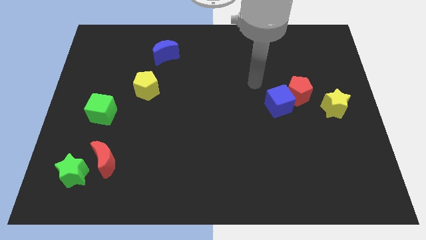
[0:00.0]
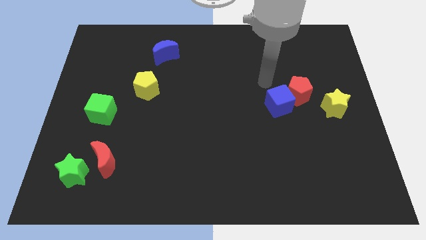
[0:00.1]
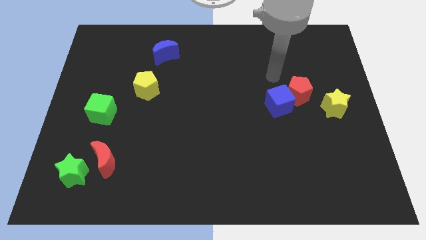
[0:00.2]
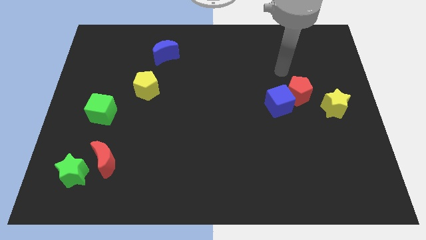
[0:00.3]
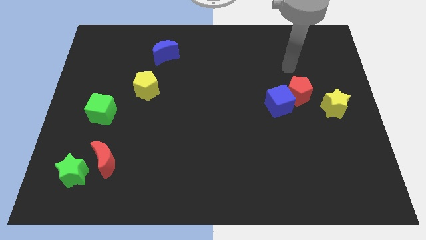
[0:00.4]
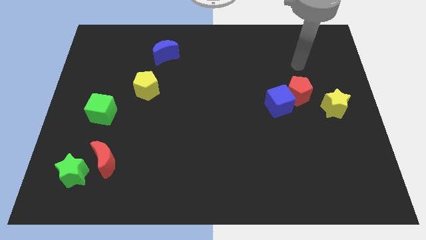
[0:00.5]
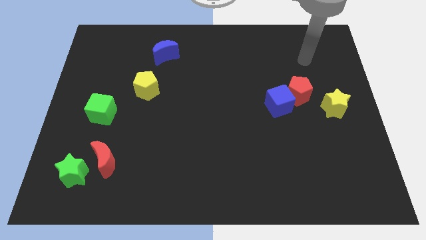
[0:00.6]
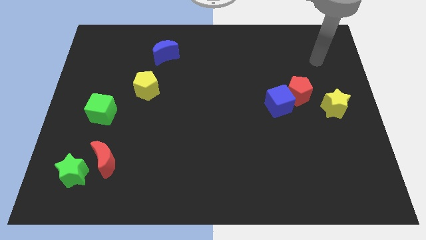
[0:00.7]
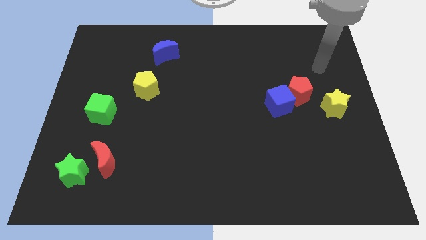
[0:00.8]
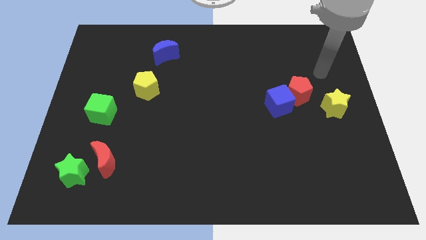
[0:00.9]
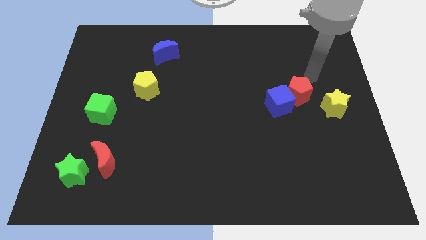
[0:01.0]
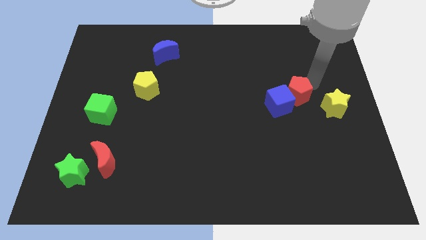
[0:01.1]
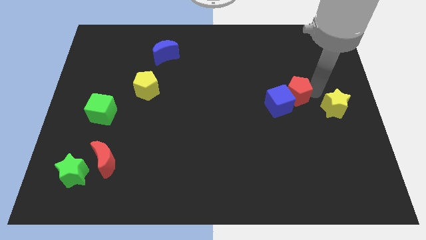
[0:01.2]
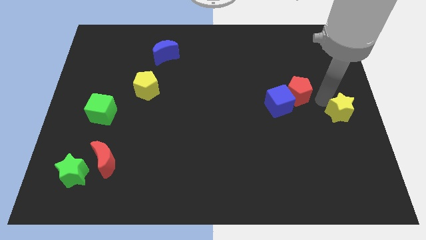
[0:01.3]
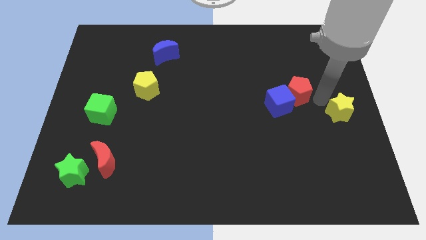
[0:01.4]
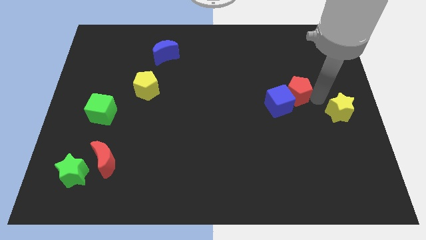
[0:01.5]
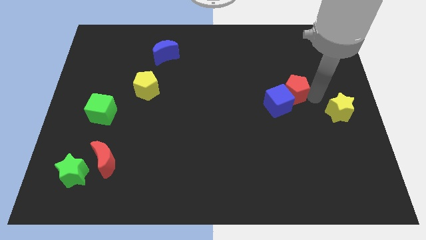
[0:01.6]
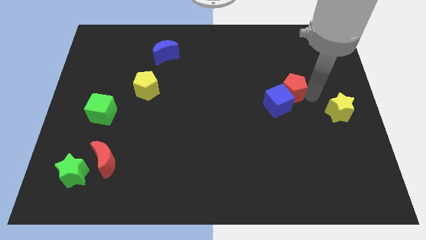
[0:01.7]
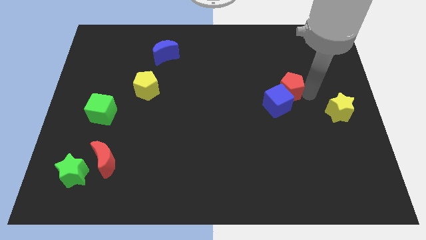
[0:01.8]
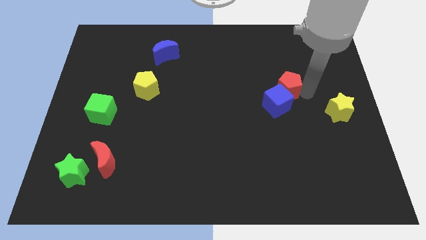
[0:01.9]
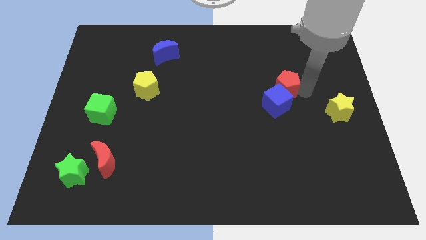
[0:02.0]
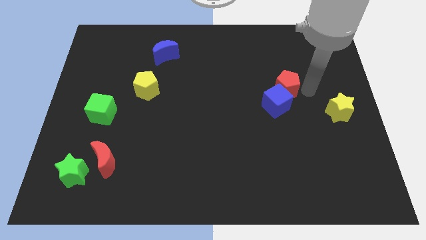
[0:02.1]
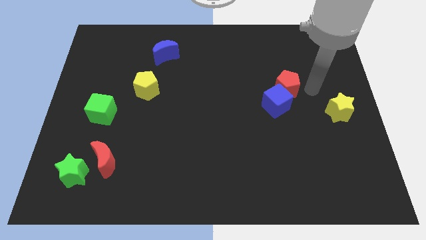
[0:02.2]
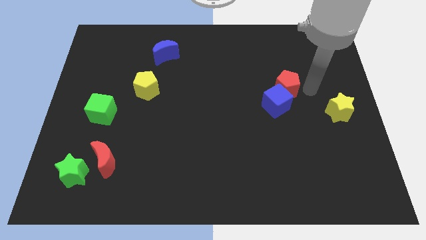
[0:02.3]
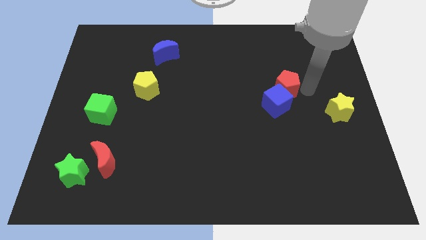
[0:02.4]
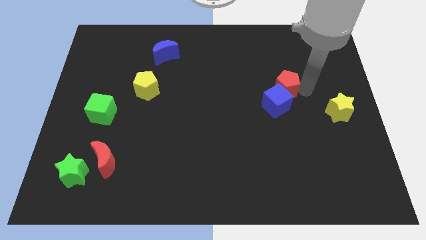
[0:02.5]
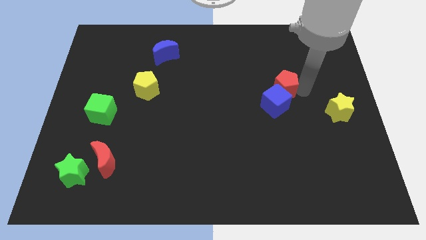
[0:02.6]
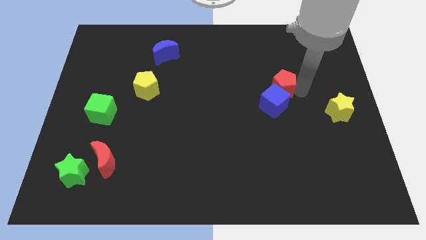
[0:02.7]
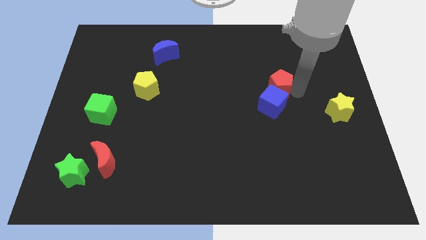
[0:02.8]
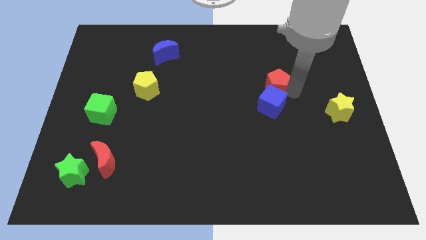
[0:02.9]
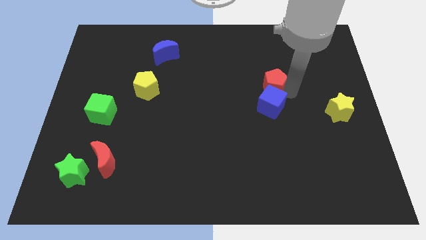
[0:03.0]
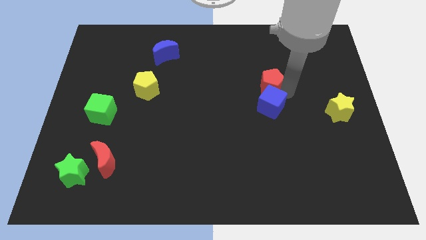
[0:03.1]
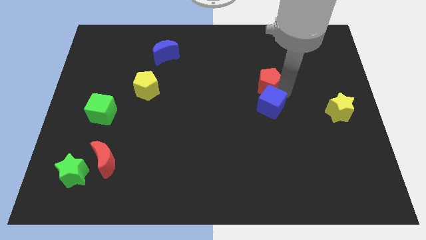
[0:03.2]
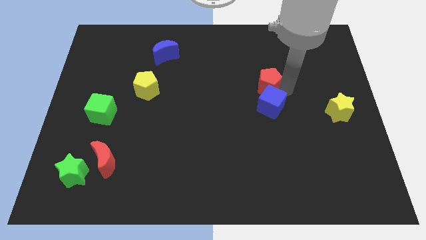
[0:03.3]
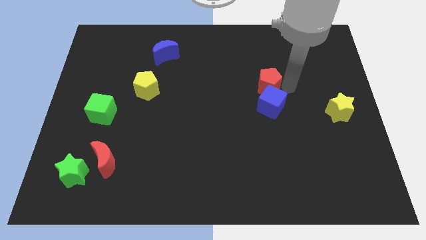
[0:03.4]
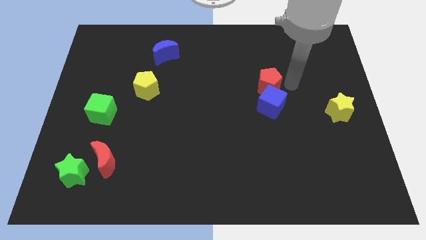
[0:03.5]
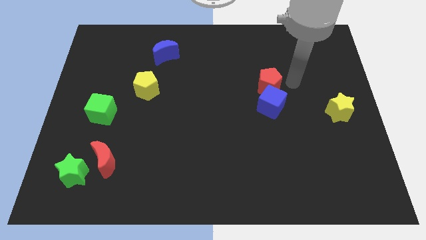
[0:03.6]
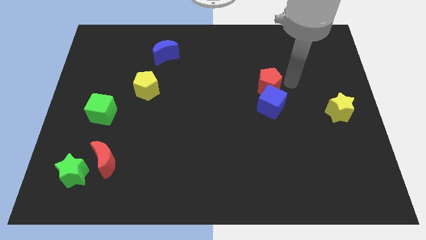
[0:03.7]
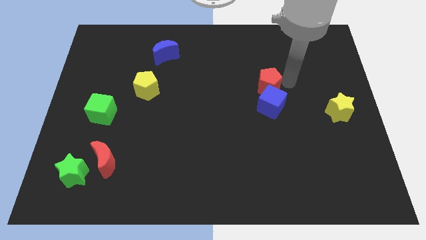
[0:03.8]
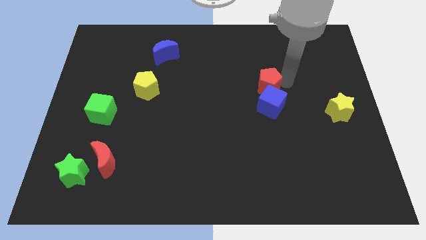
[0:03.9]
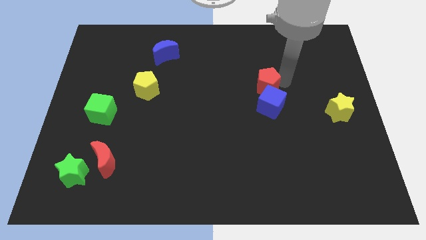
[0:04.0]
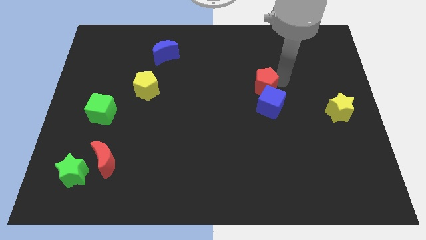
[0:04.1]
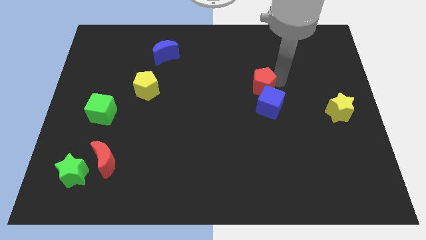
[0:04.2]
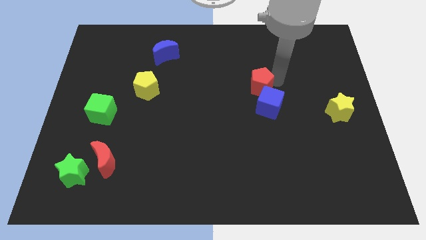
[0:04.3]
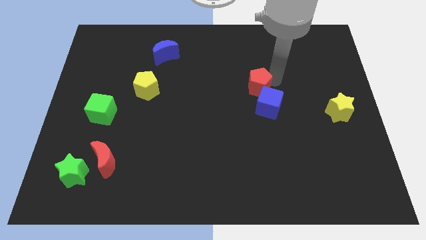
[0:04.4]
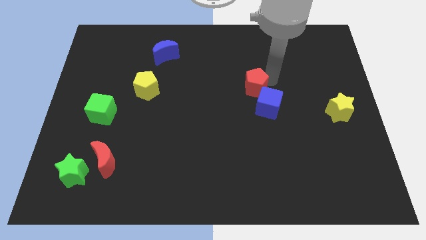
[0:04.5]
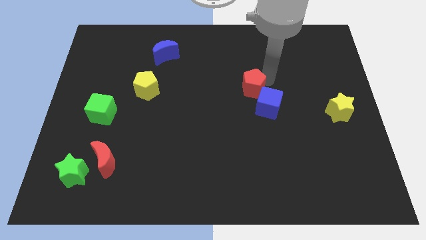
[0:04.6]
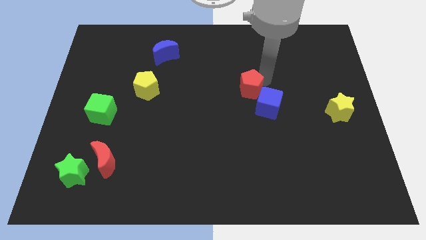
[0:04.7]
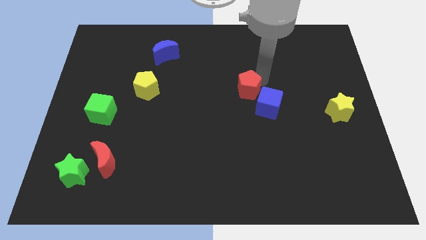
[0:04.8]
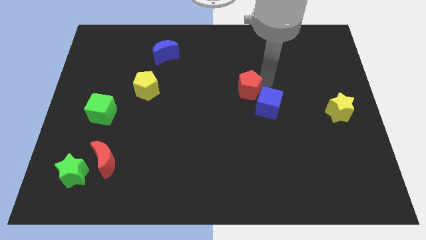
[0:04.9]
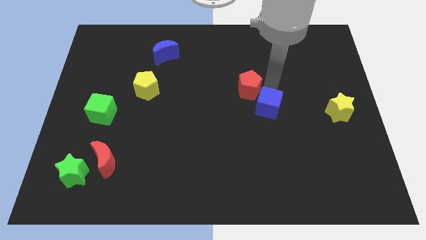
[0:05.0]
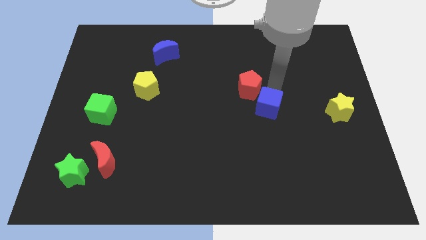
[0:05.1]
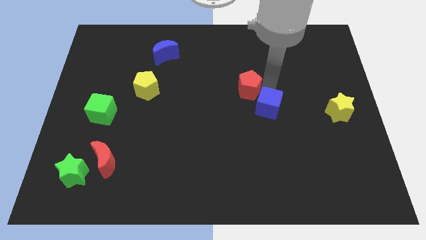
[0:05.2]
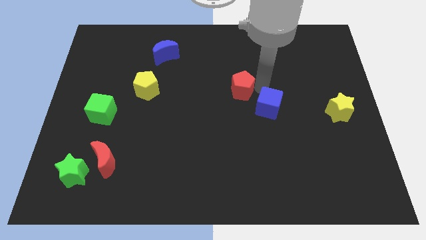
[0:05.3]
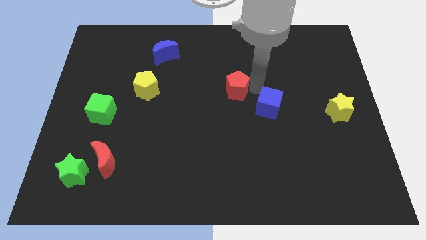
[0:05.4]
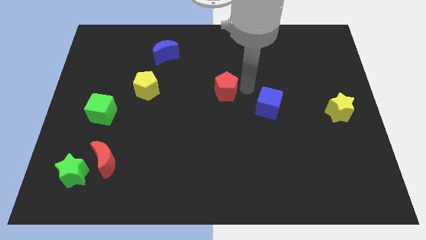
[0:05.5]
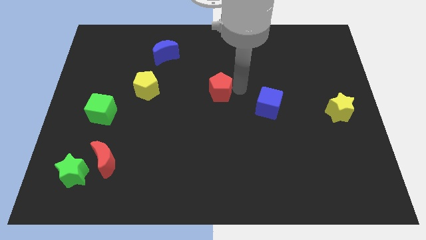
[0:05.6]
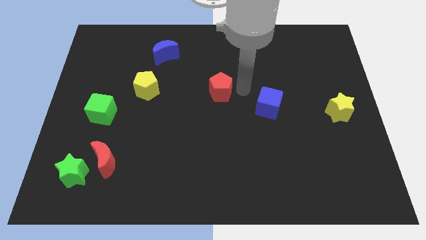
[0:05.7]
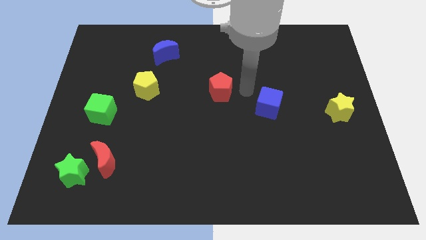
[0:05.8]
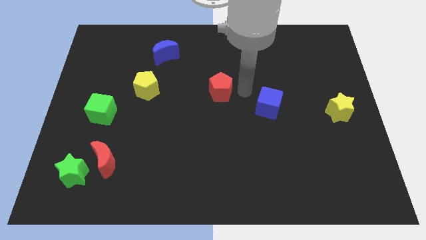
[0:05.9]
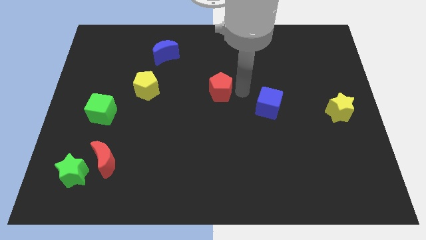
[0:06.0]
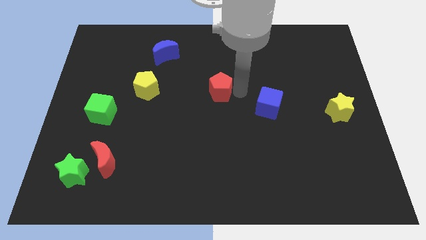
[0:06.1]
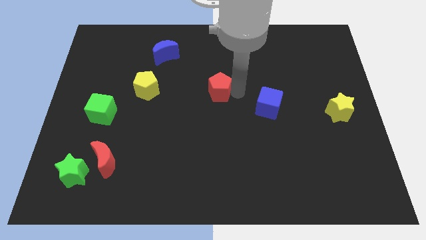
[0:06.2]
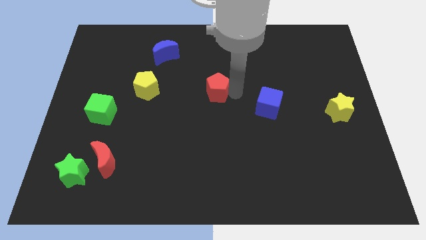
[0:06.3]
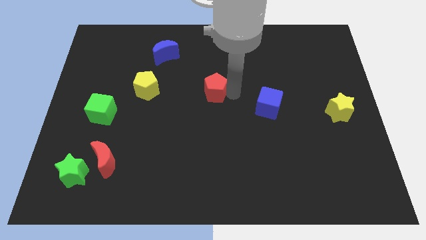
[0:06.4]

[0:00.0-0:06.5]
slide the red pentagon left

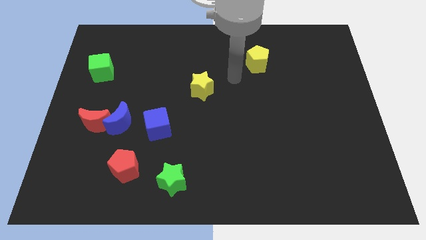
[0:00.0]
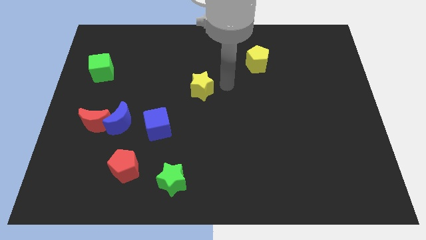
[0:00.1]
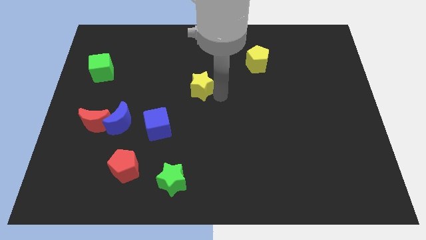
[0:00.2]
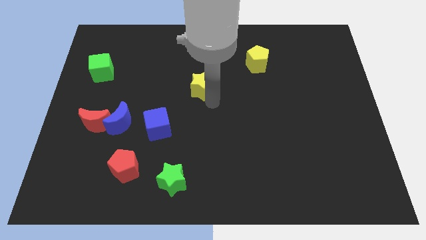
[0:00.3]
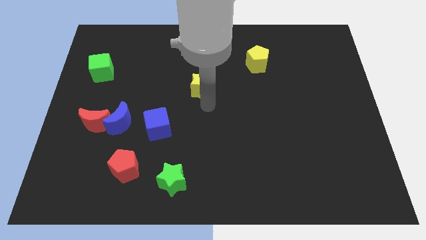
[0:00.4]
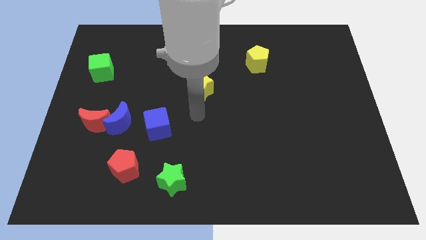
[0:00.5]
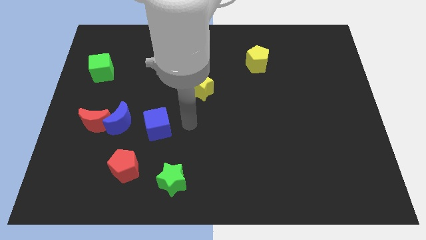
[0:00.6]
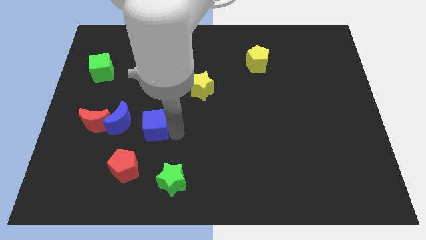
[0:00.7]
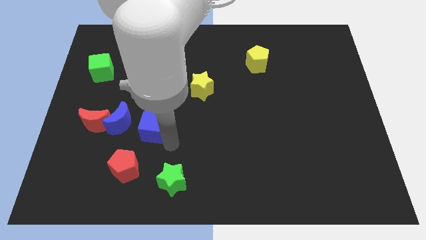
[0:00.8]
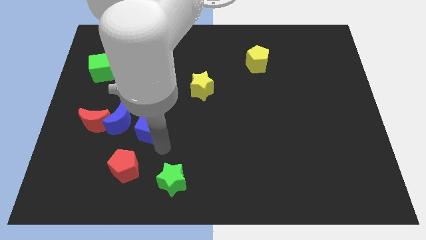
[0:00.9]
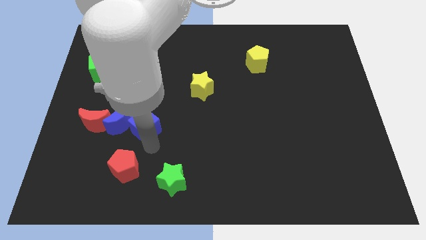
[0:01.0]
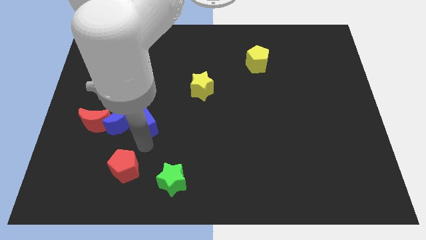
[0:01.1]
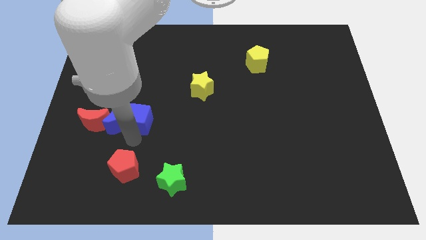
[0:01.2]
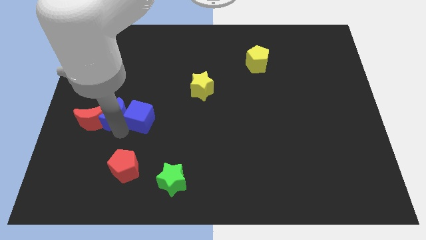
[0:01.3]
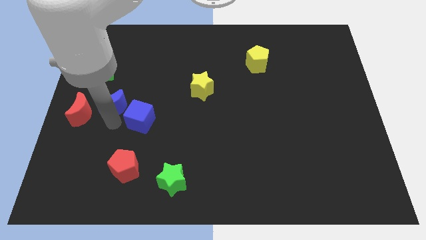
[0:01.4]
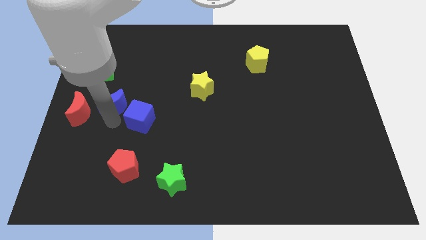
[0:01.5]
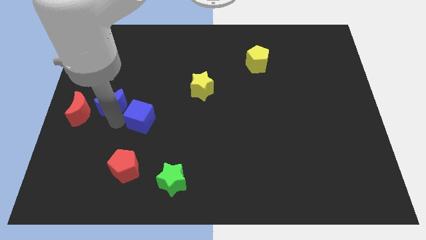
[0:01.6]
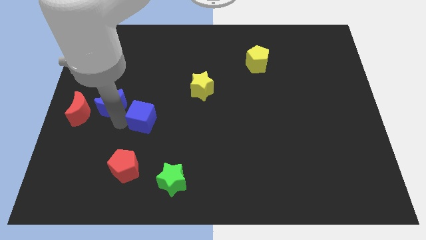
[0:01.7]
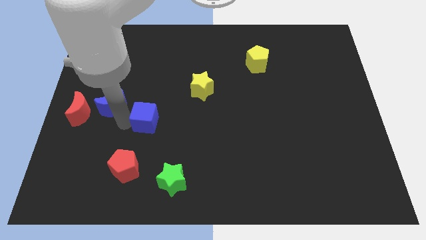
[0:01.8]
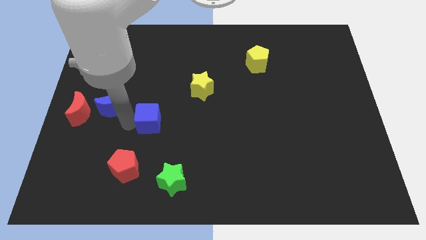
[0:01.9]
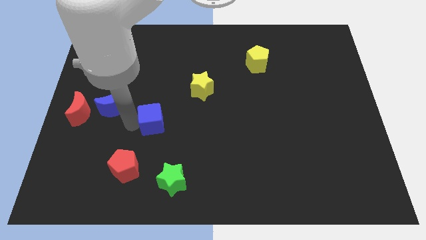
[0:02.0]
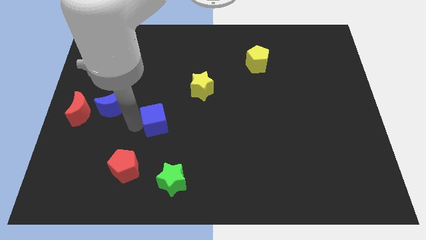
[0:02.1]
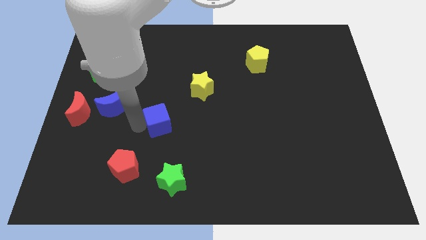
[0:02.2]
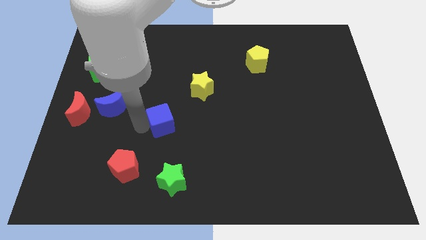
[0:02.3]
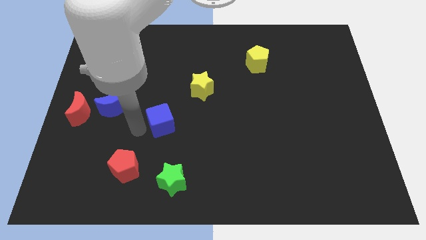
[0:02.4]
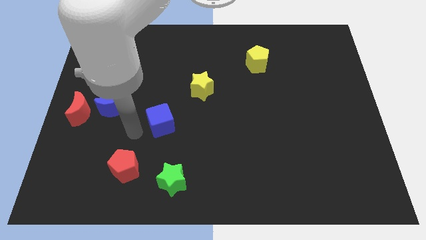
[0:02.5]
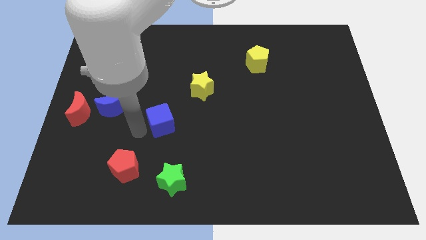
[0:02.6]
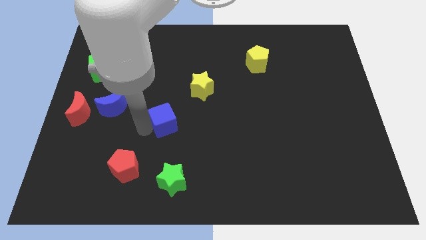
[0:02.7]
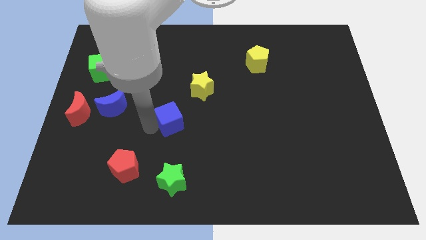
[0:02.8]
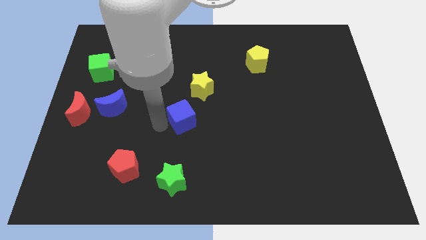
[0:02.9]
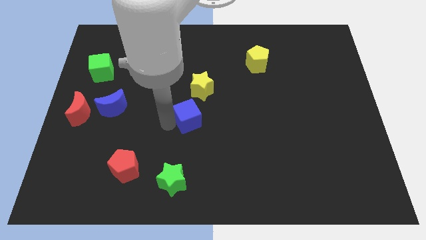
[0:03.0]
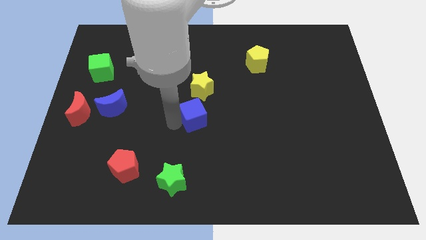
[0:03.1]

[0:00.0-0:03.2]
slightly push the blue cube diagonally upwards and right
